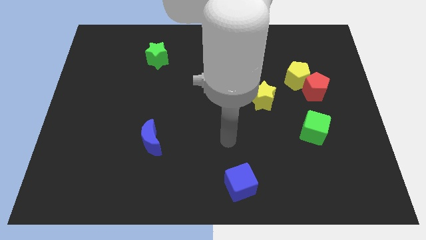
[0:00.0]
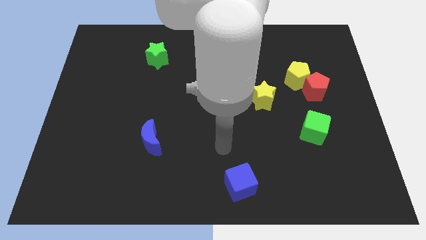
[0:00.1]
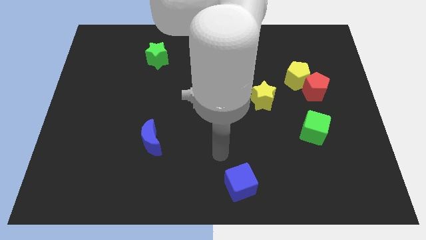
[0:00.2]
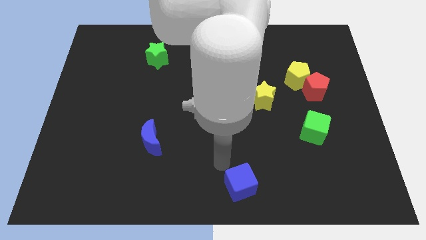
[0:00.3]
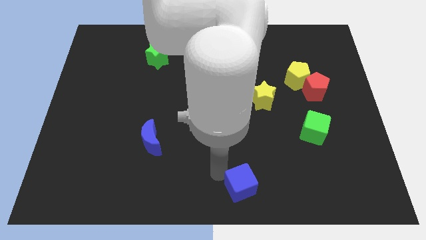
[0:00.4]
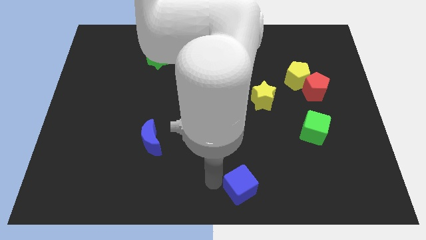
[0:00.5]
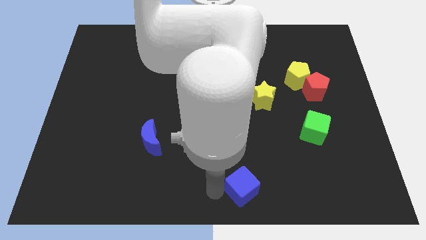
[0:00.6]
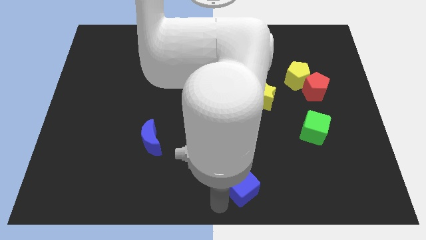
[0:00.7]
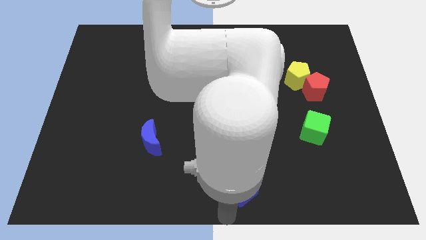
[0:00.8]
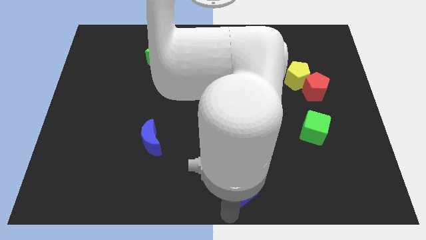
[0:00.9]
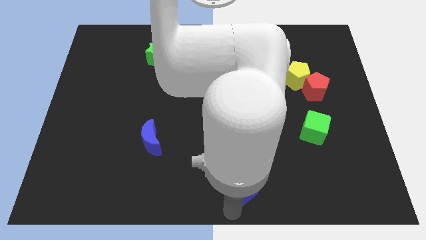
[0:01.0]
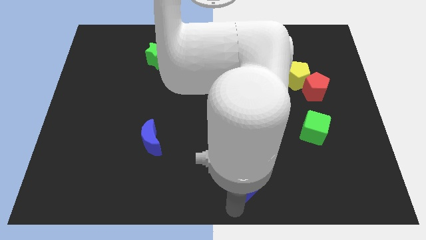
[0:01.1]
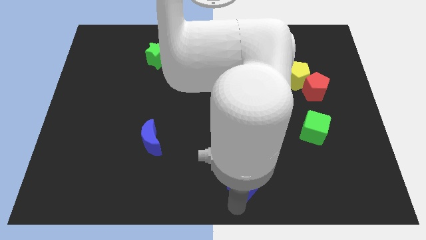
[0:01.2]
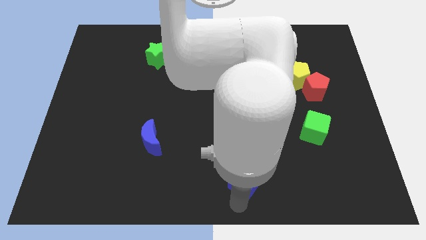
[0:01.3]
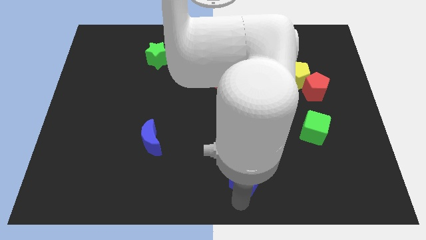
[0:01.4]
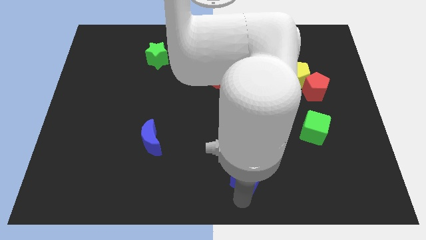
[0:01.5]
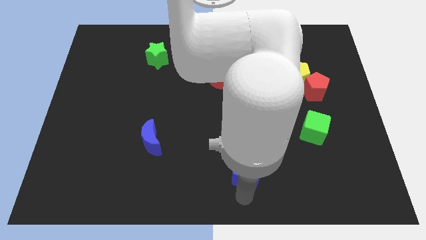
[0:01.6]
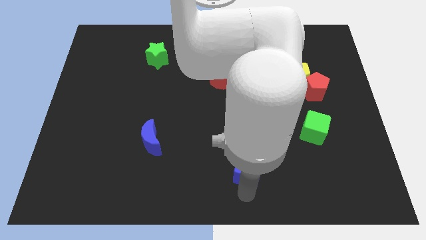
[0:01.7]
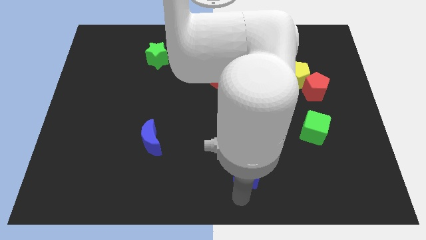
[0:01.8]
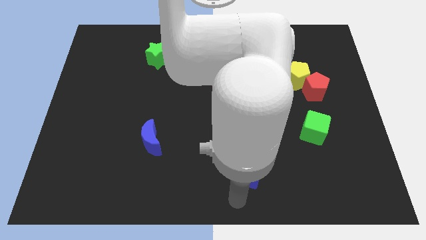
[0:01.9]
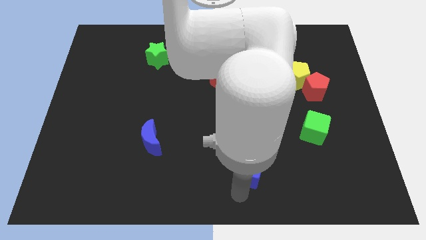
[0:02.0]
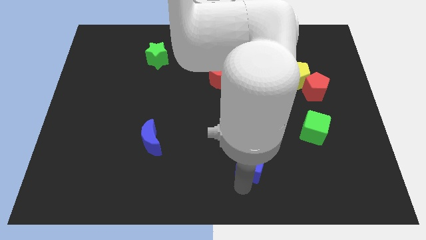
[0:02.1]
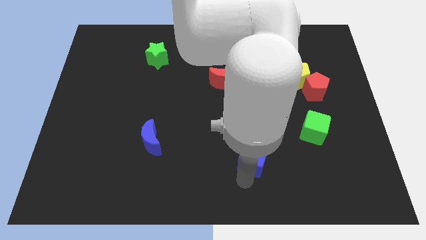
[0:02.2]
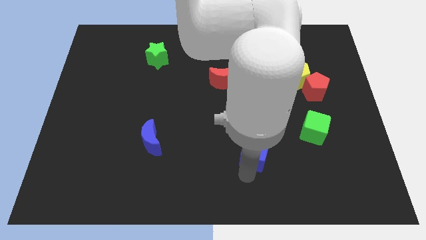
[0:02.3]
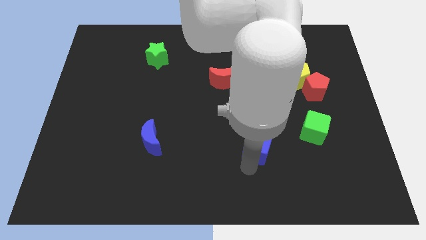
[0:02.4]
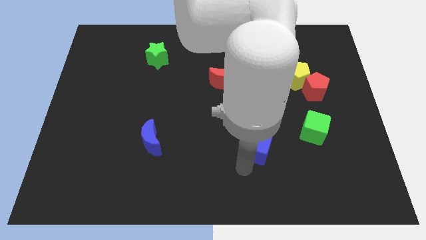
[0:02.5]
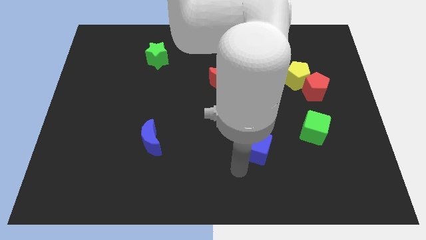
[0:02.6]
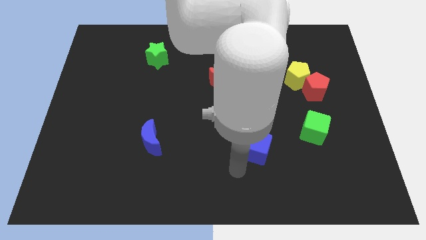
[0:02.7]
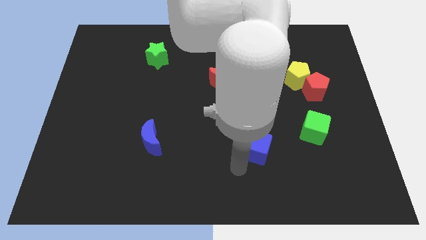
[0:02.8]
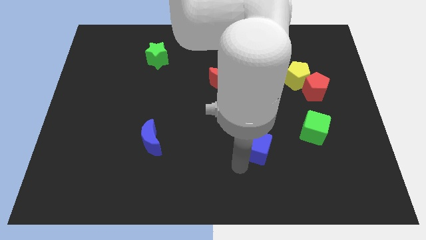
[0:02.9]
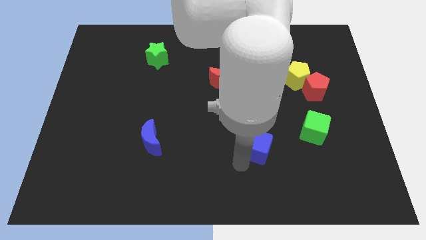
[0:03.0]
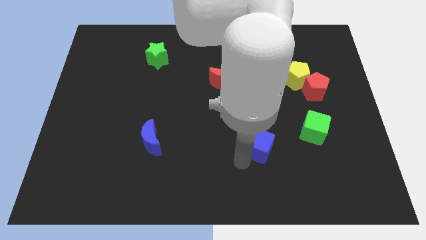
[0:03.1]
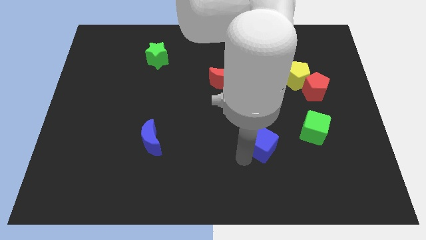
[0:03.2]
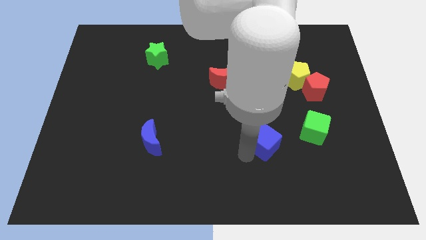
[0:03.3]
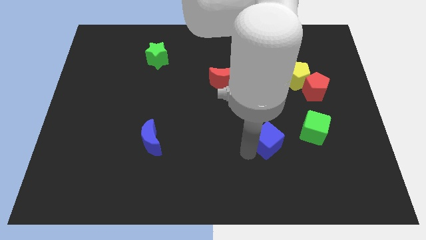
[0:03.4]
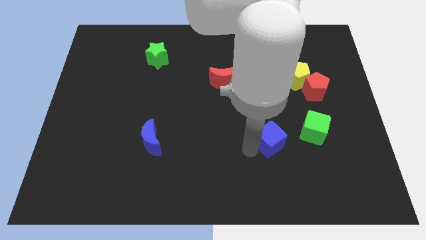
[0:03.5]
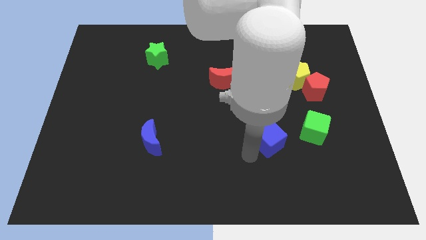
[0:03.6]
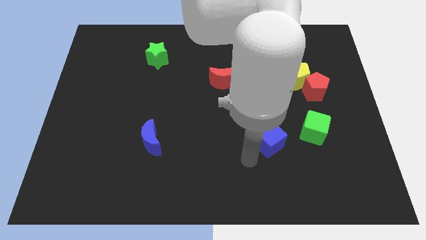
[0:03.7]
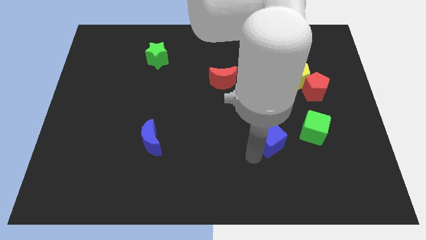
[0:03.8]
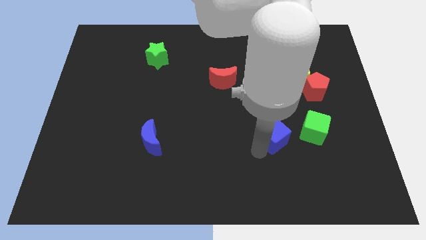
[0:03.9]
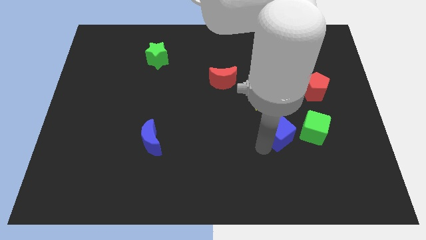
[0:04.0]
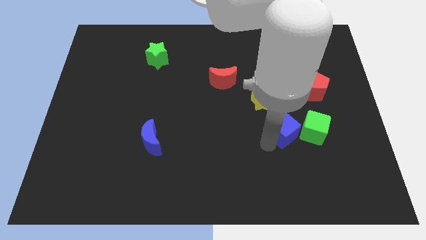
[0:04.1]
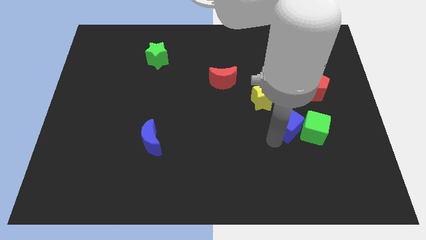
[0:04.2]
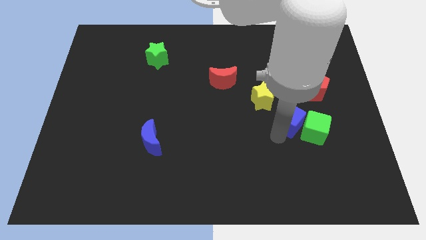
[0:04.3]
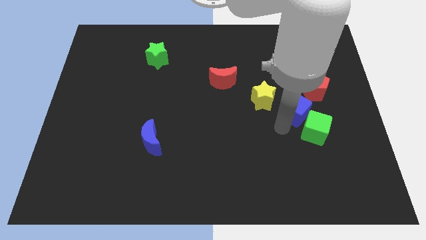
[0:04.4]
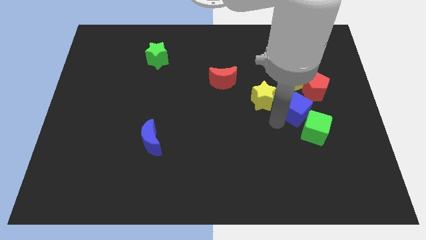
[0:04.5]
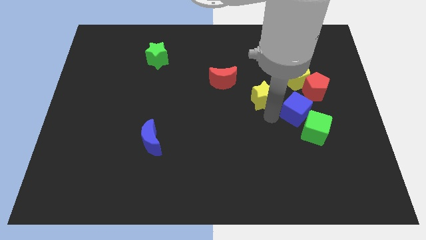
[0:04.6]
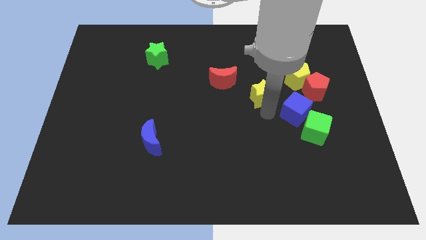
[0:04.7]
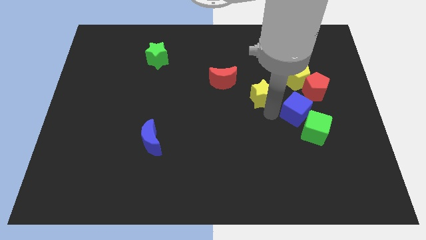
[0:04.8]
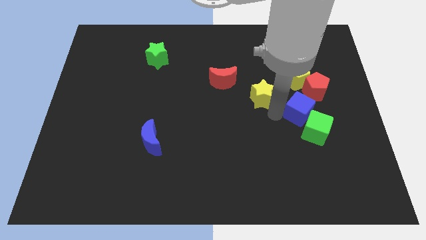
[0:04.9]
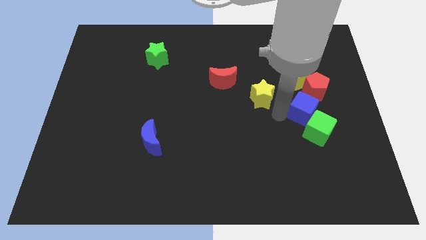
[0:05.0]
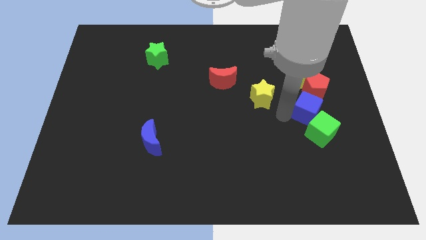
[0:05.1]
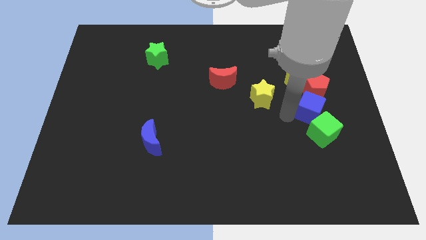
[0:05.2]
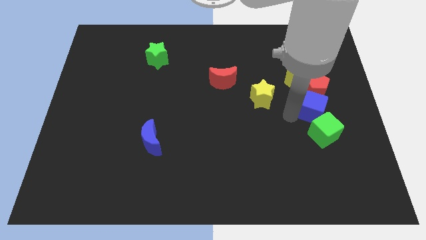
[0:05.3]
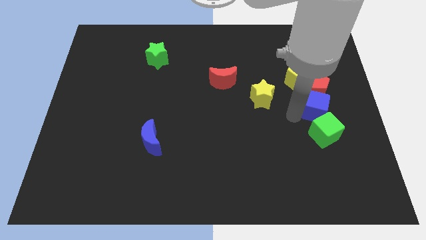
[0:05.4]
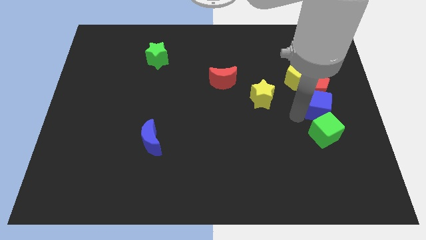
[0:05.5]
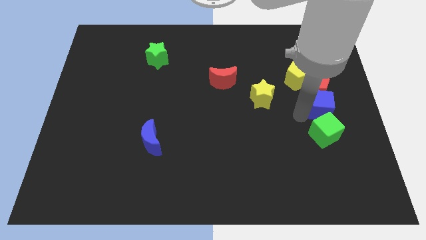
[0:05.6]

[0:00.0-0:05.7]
put the blue cube to the top right of the green cube

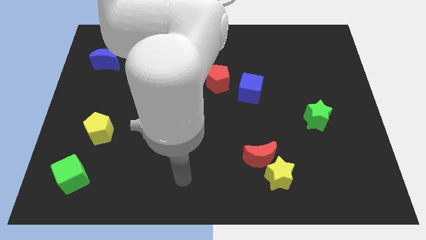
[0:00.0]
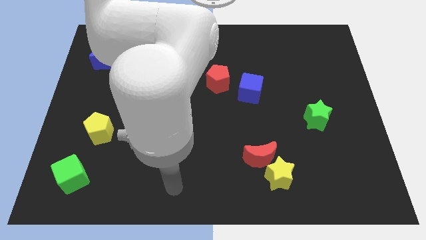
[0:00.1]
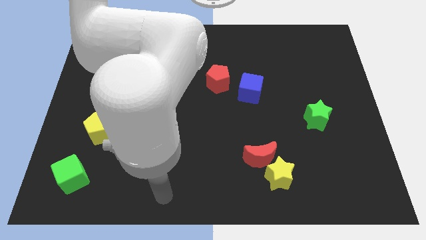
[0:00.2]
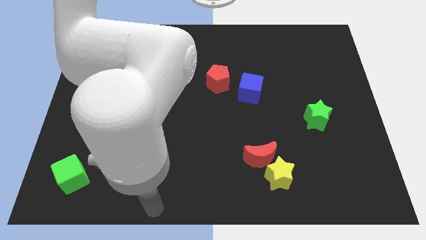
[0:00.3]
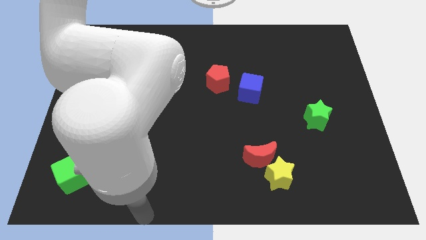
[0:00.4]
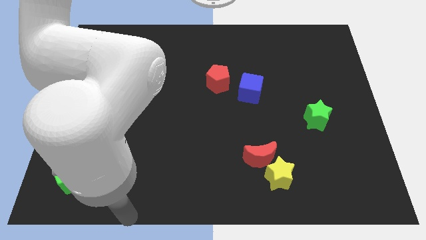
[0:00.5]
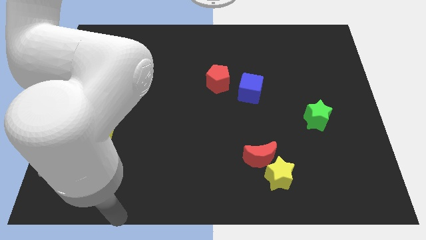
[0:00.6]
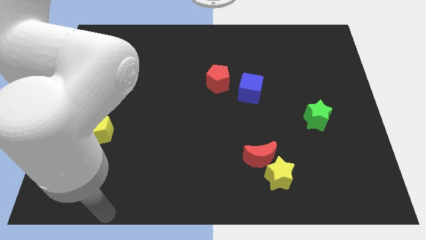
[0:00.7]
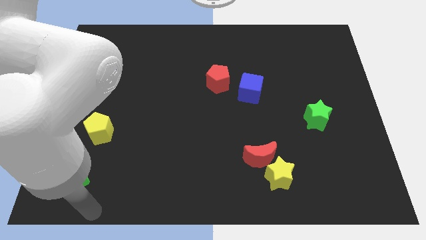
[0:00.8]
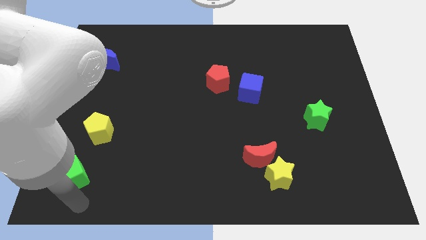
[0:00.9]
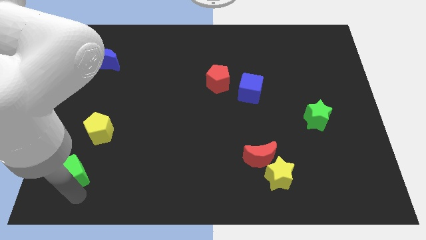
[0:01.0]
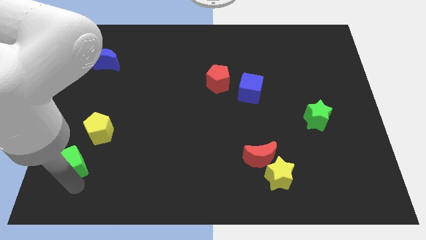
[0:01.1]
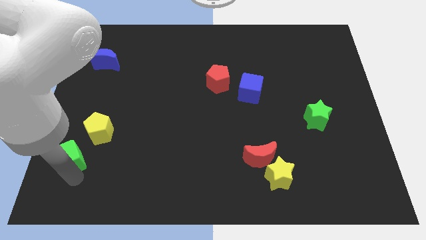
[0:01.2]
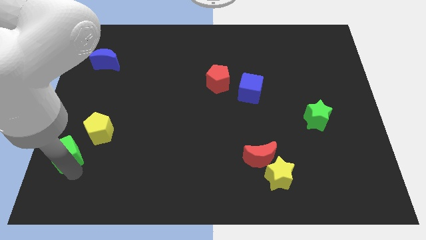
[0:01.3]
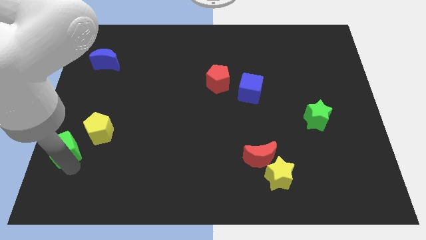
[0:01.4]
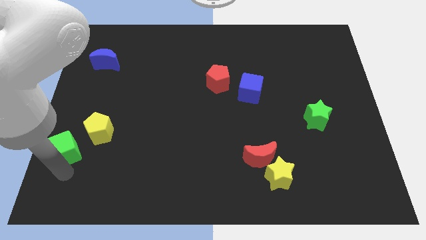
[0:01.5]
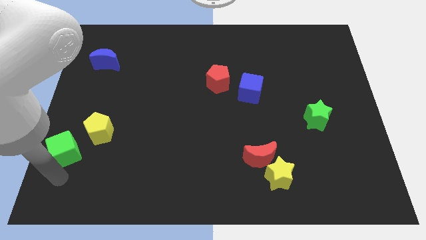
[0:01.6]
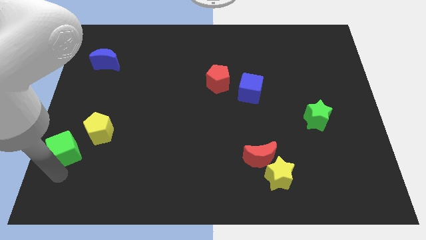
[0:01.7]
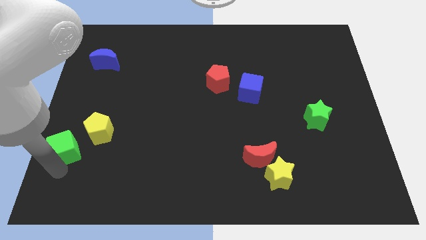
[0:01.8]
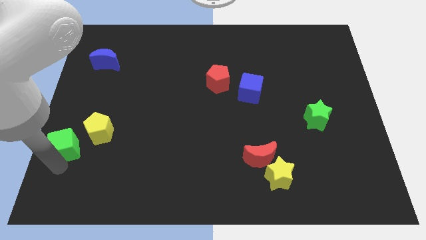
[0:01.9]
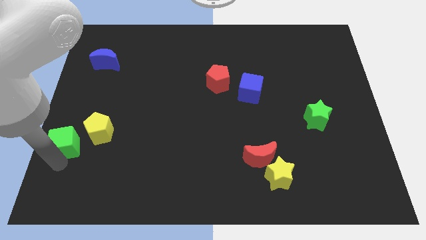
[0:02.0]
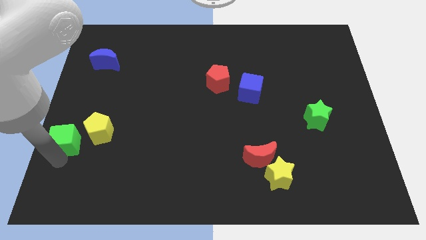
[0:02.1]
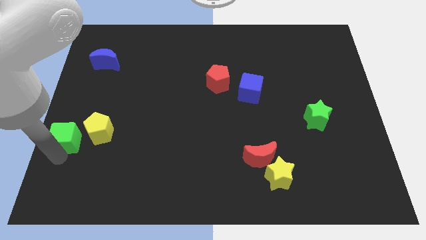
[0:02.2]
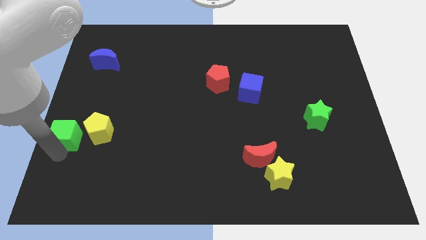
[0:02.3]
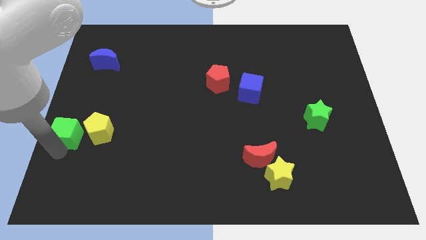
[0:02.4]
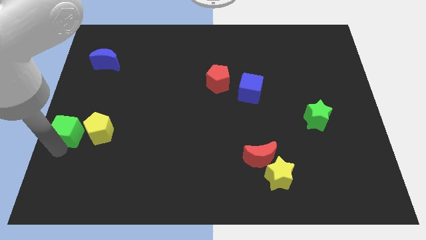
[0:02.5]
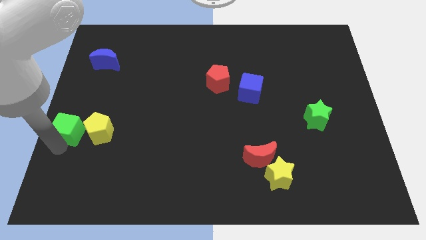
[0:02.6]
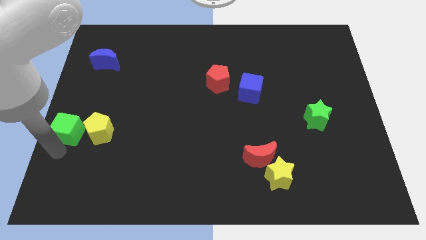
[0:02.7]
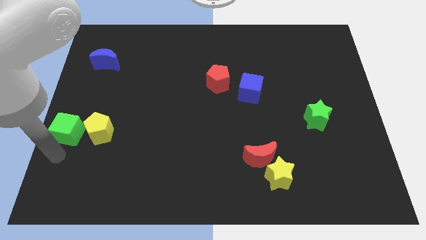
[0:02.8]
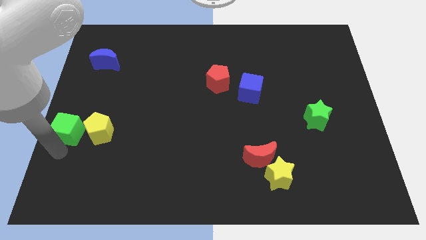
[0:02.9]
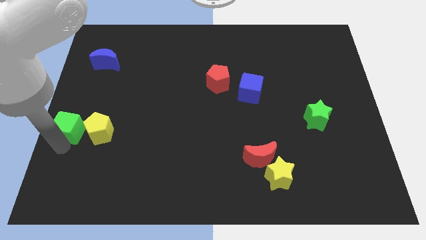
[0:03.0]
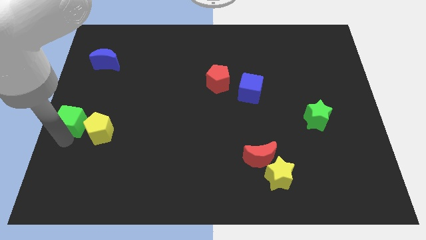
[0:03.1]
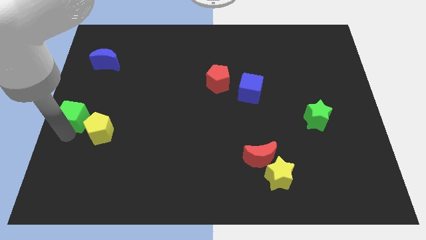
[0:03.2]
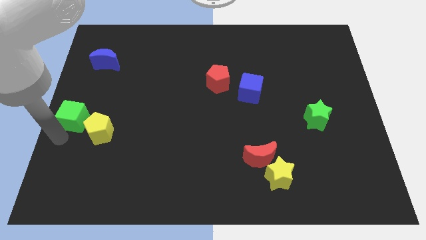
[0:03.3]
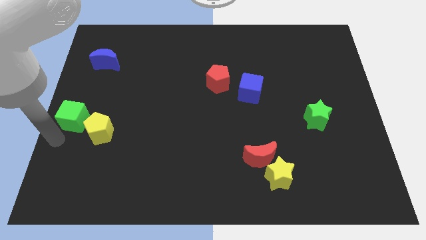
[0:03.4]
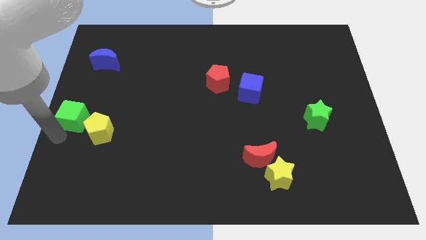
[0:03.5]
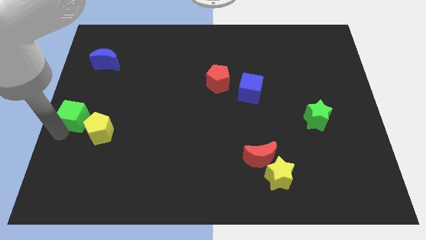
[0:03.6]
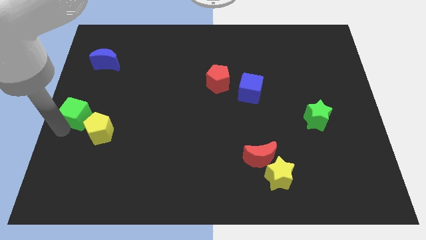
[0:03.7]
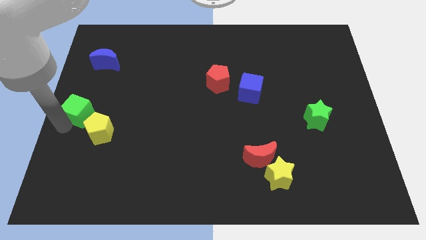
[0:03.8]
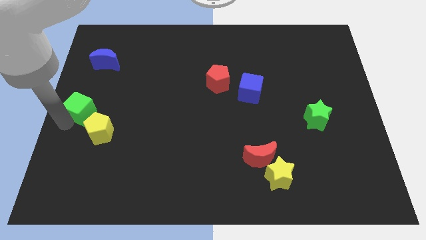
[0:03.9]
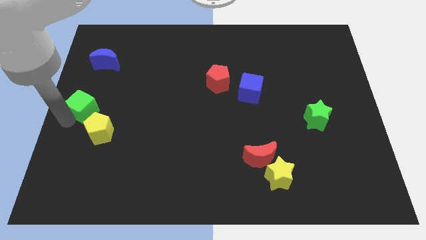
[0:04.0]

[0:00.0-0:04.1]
push the green cube below the blue moon
